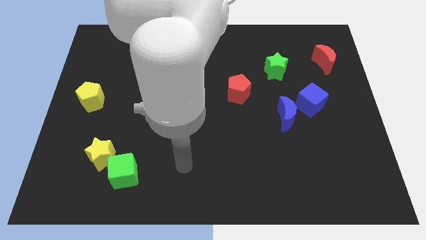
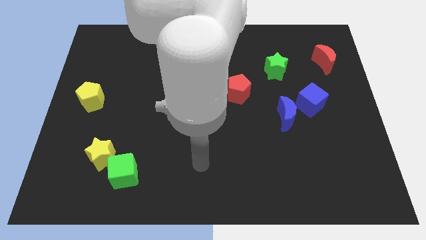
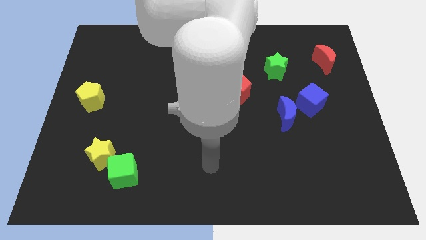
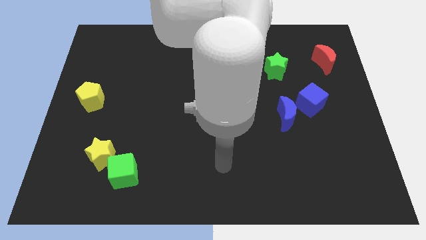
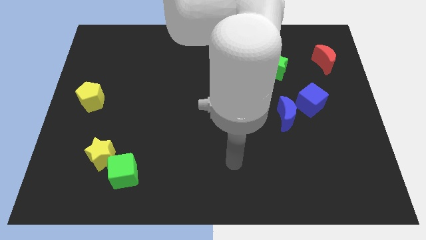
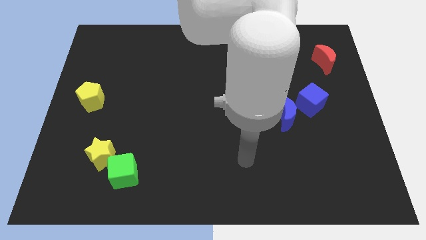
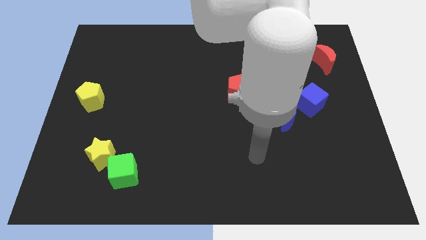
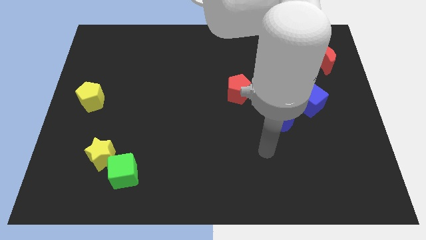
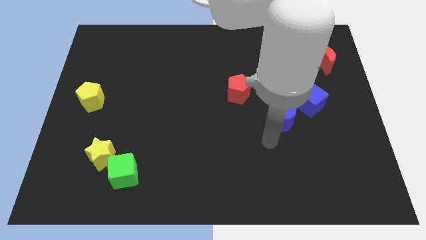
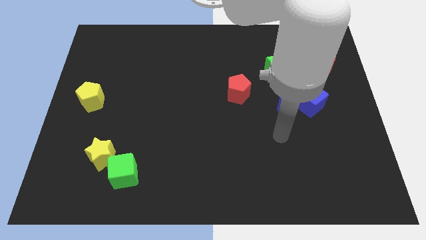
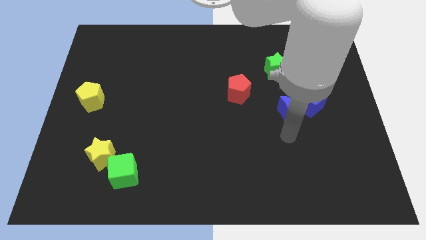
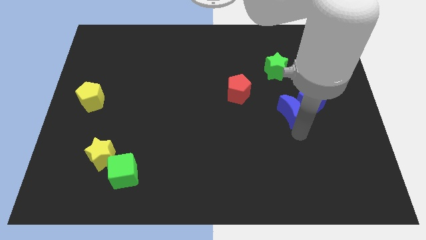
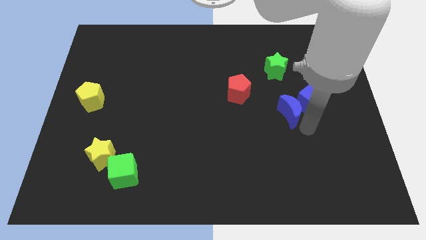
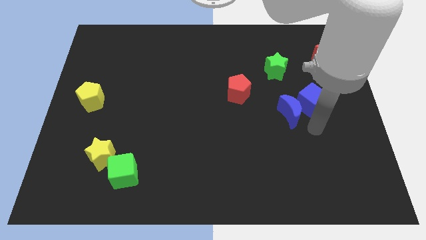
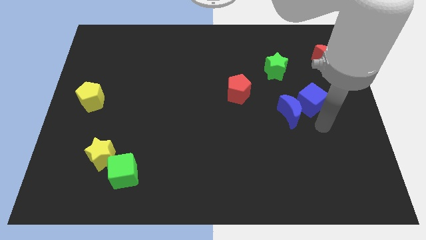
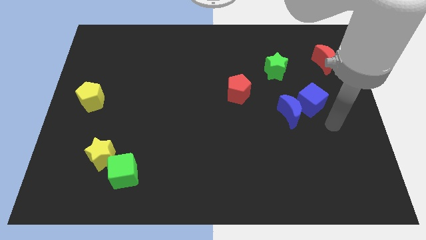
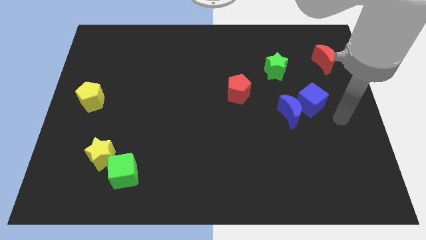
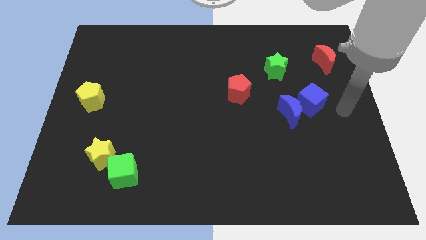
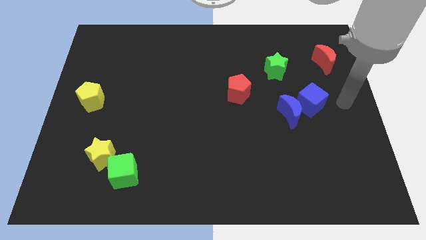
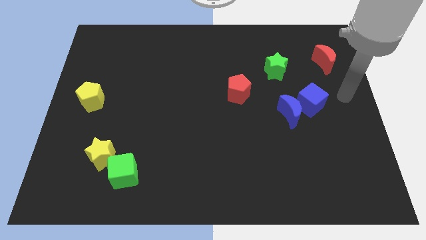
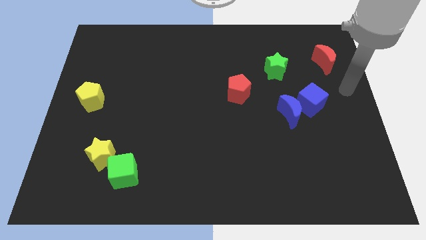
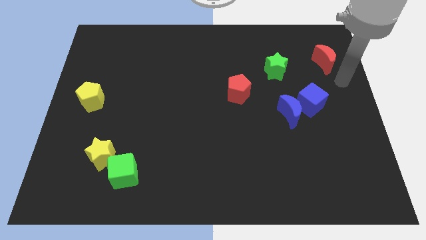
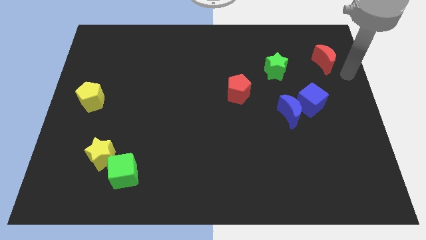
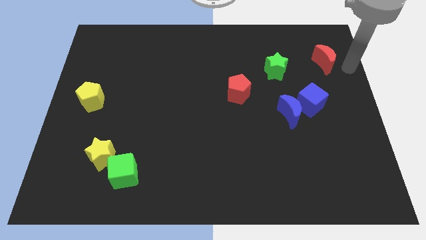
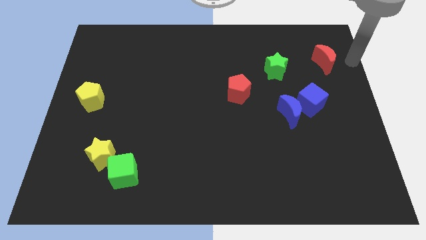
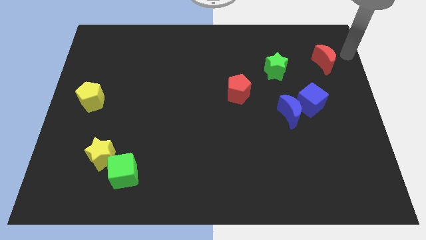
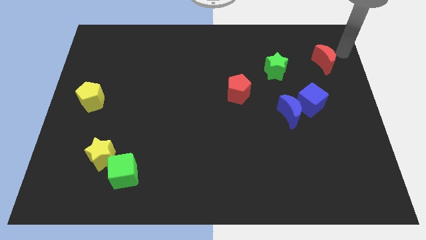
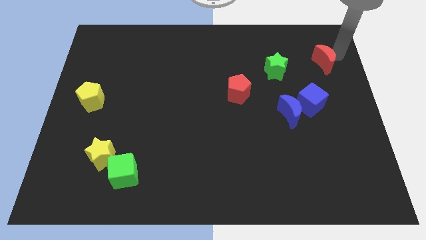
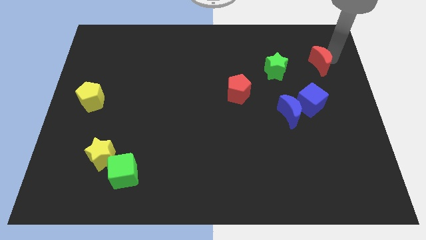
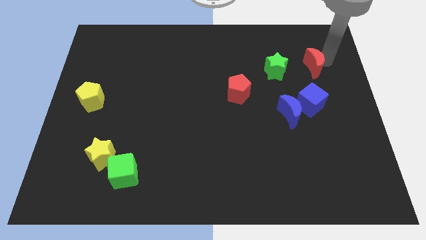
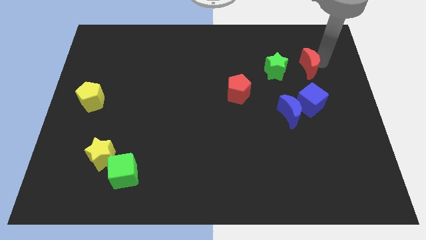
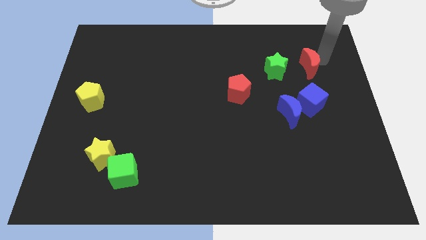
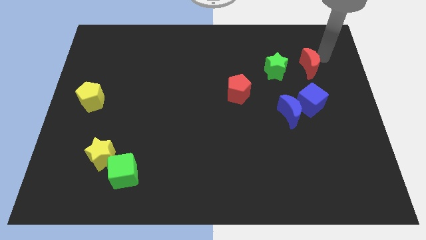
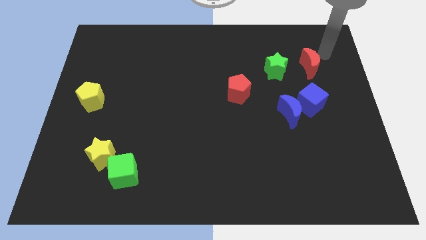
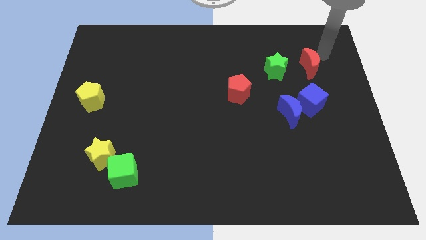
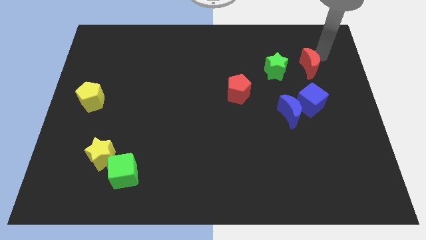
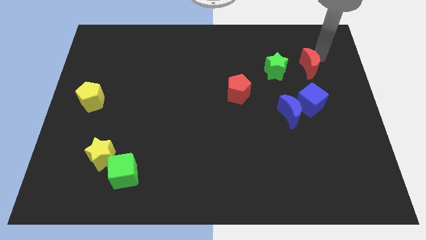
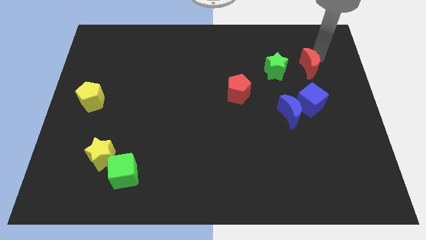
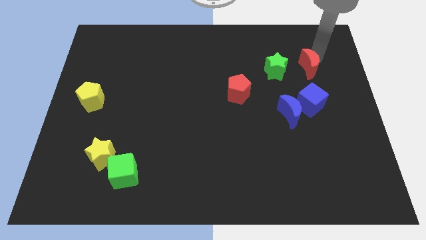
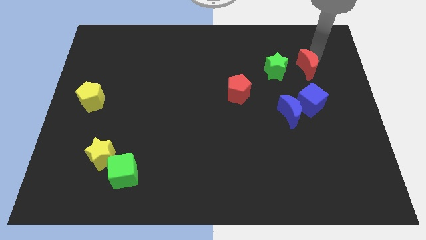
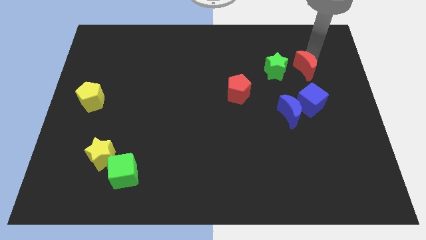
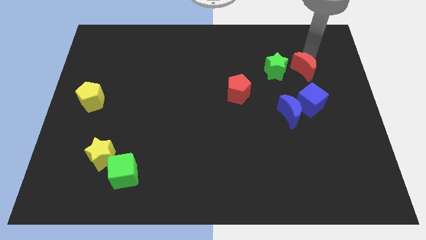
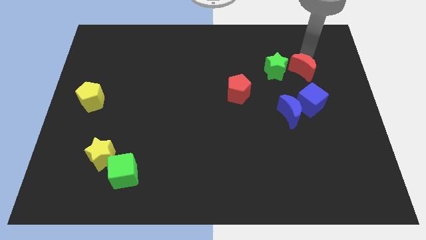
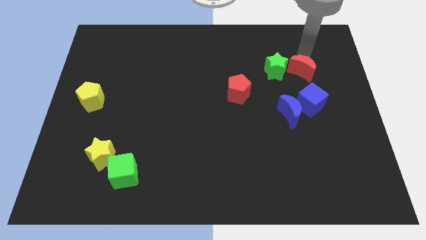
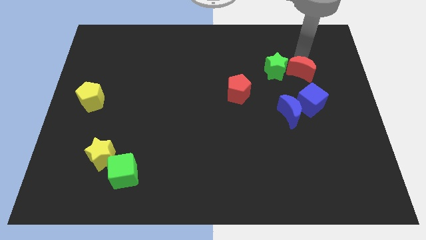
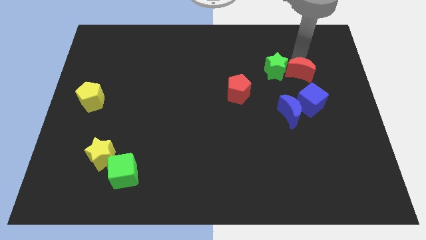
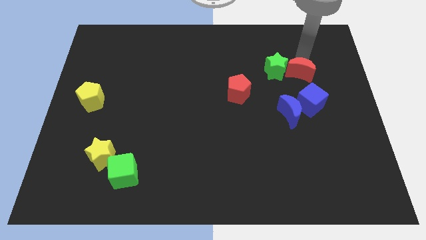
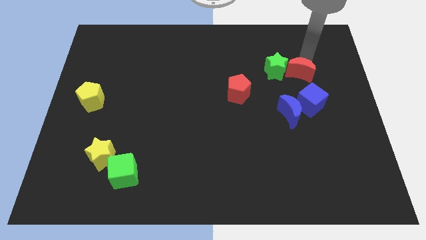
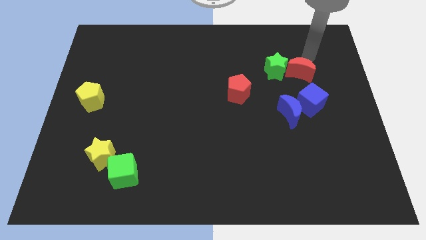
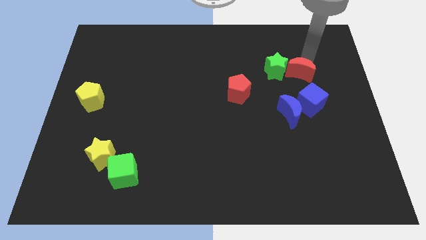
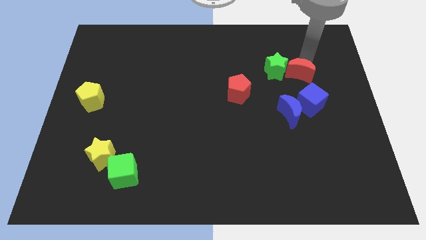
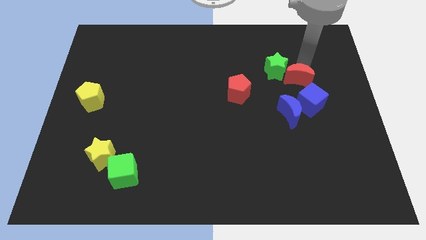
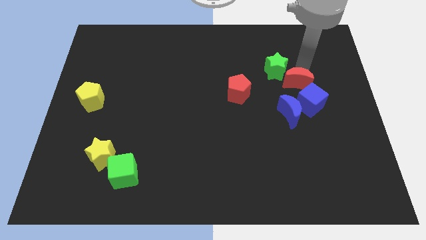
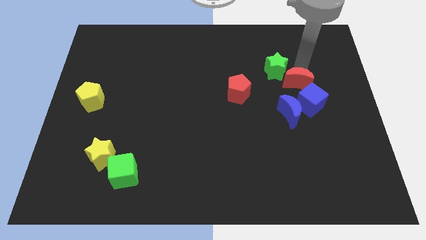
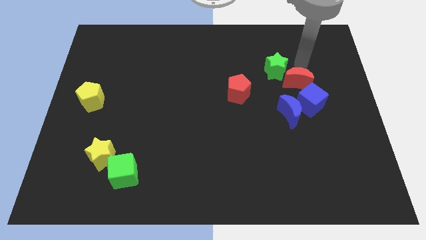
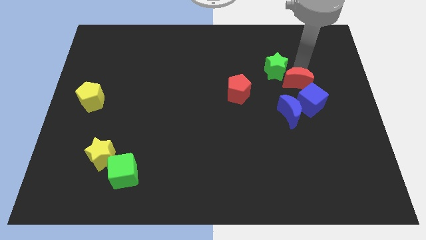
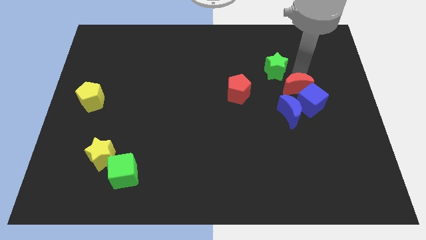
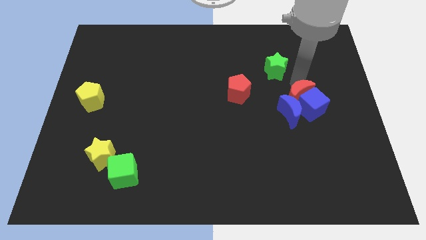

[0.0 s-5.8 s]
slide the red moon next to the blue moon
